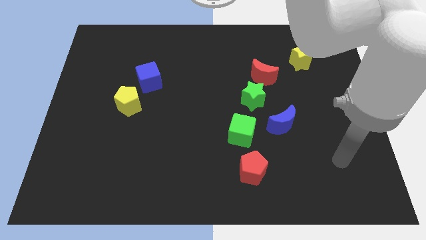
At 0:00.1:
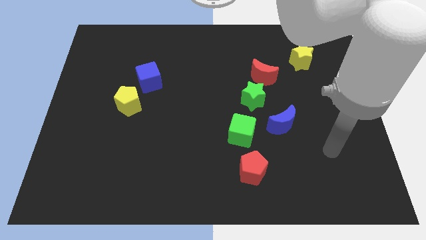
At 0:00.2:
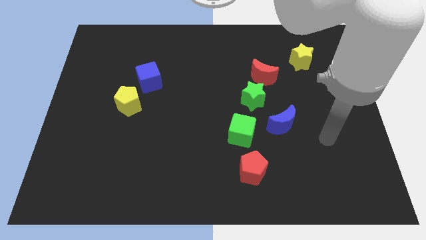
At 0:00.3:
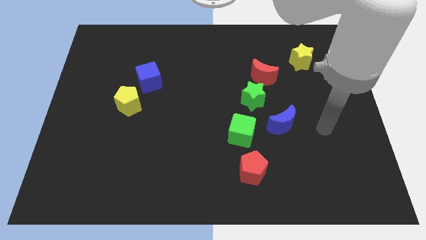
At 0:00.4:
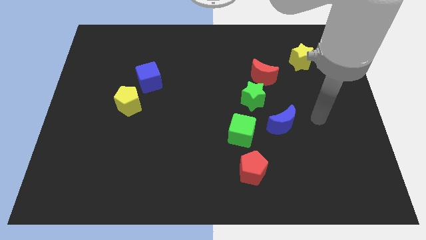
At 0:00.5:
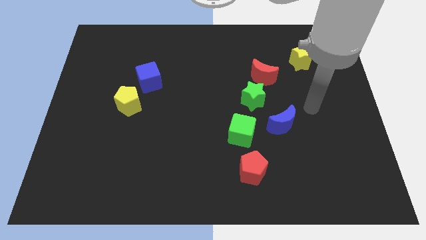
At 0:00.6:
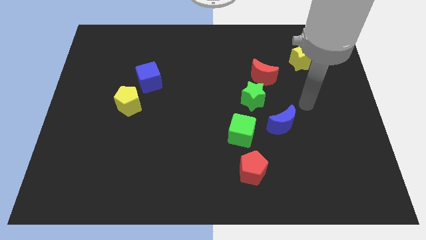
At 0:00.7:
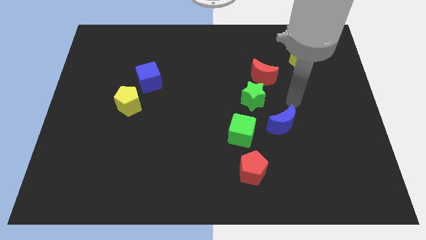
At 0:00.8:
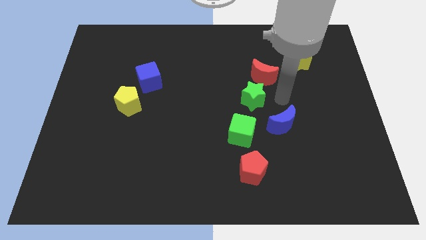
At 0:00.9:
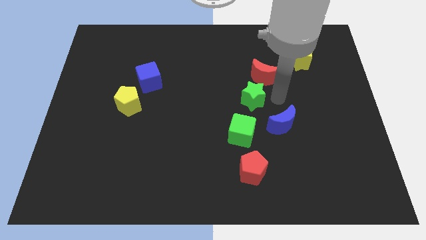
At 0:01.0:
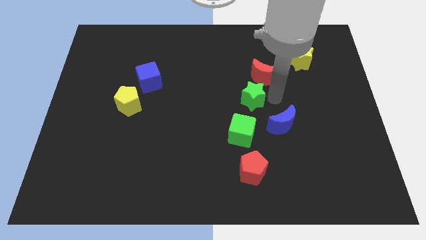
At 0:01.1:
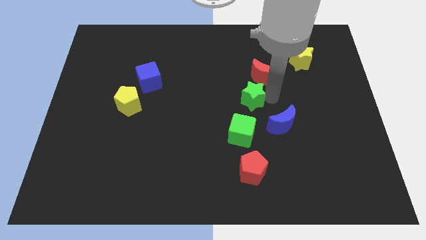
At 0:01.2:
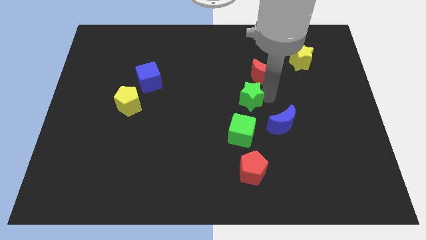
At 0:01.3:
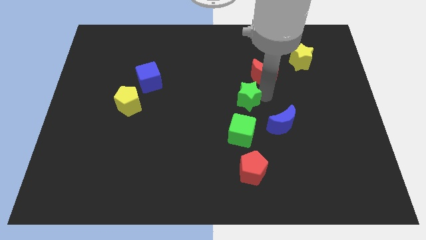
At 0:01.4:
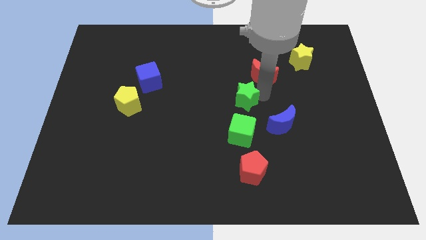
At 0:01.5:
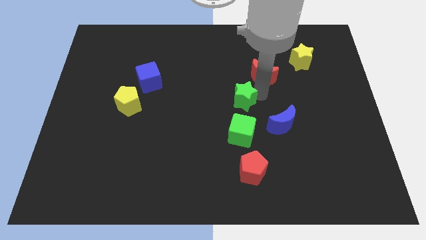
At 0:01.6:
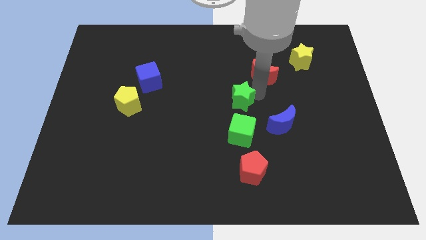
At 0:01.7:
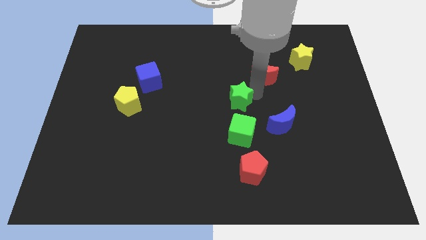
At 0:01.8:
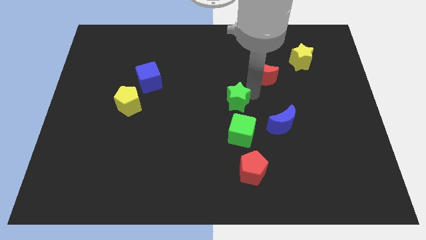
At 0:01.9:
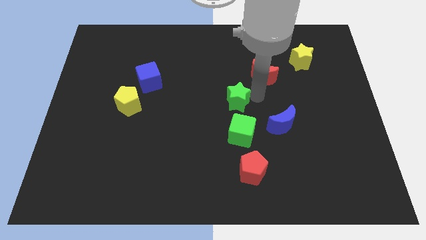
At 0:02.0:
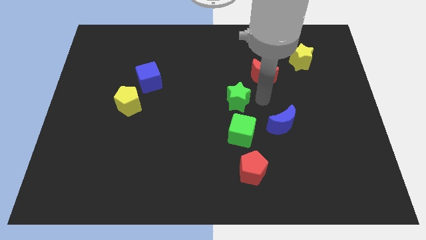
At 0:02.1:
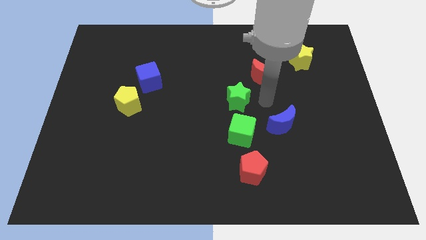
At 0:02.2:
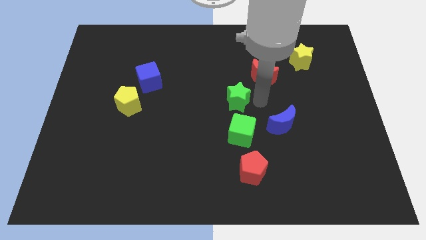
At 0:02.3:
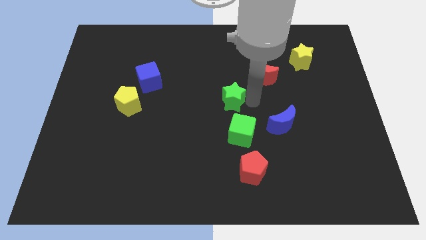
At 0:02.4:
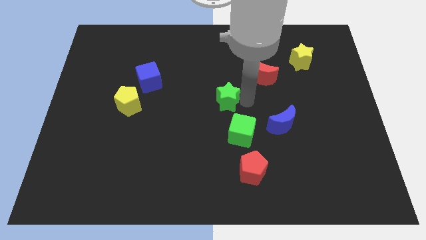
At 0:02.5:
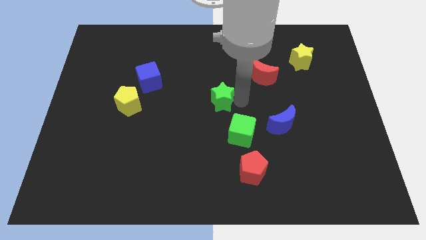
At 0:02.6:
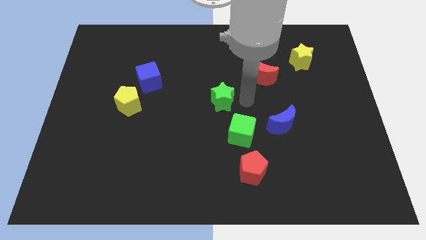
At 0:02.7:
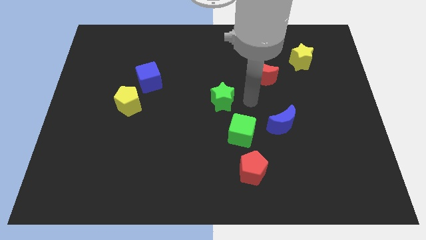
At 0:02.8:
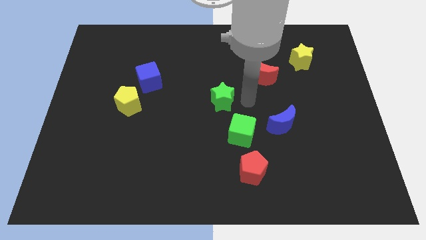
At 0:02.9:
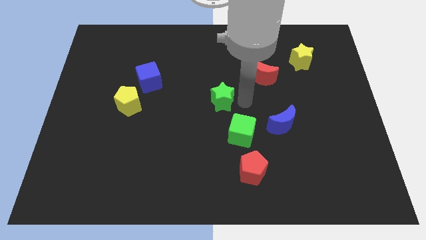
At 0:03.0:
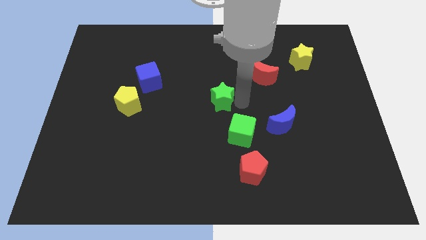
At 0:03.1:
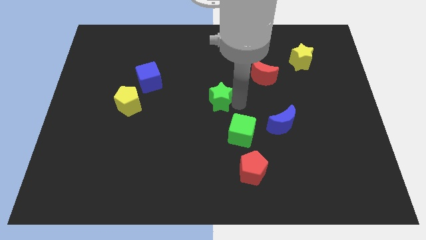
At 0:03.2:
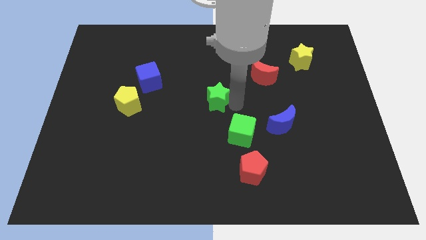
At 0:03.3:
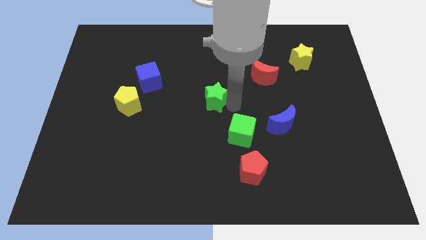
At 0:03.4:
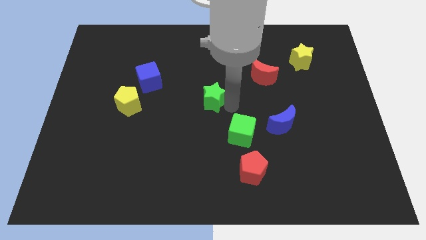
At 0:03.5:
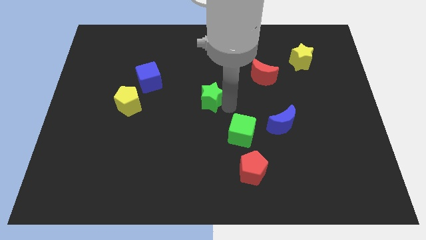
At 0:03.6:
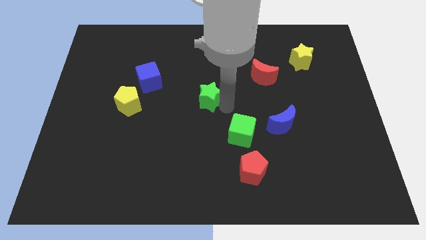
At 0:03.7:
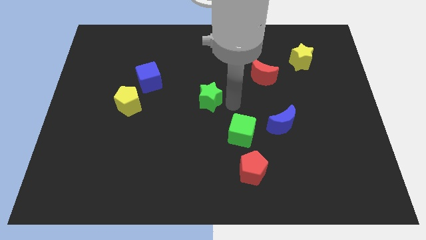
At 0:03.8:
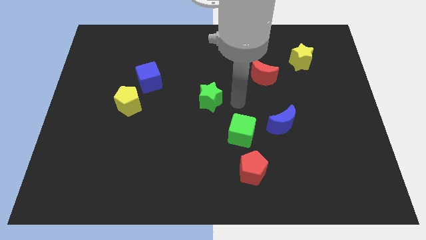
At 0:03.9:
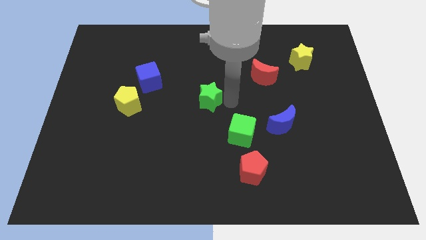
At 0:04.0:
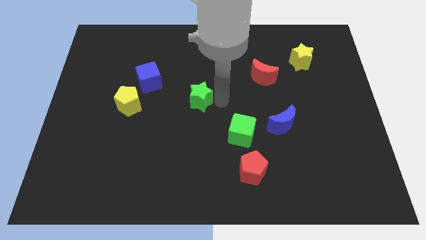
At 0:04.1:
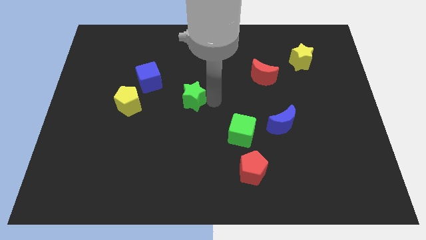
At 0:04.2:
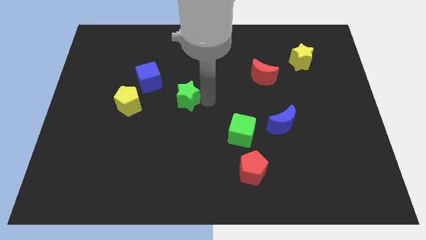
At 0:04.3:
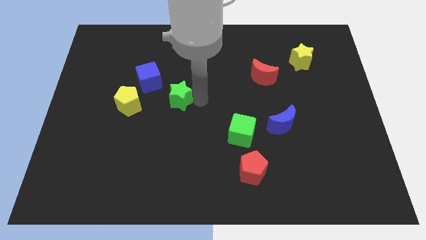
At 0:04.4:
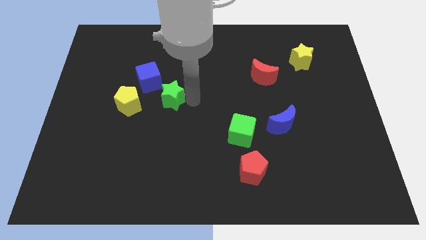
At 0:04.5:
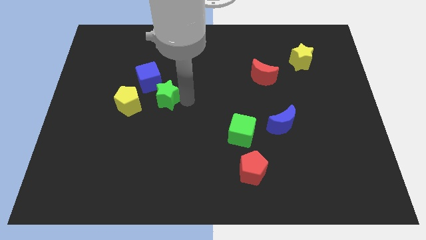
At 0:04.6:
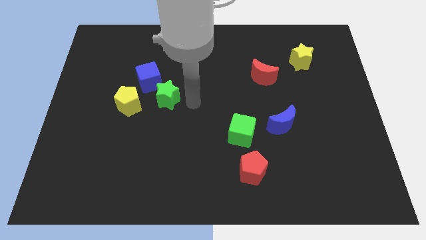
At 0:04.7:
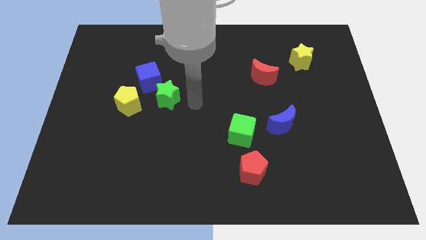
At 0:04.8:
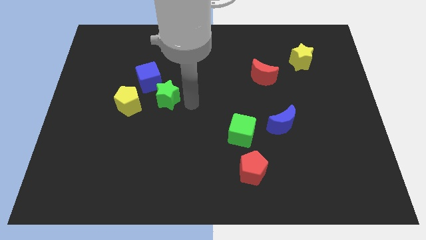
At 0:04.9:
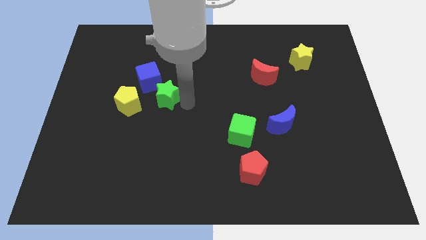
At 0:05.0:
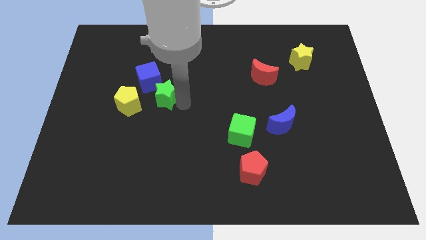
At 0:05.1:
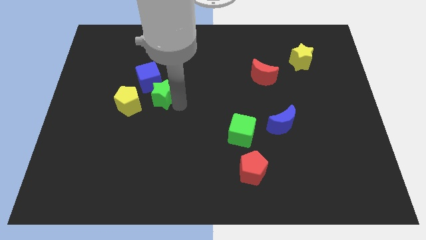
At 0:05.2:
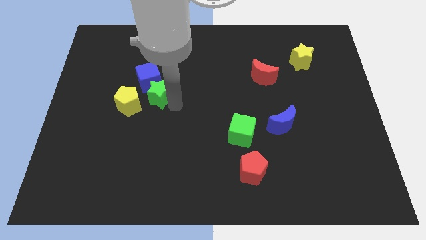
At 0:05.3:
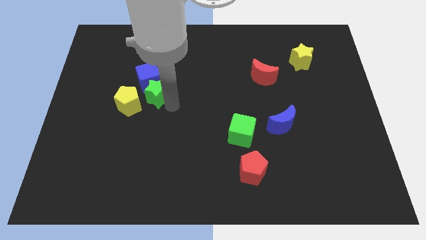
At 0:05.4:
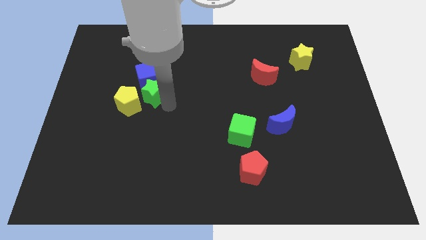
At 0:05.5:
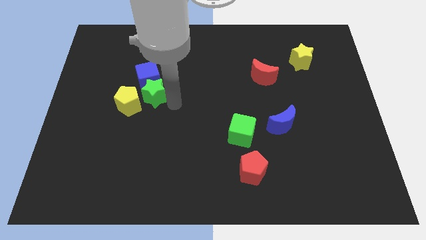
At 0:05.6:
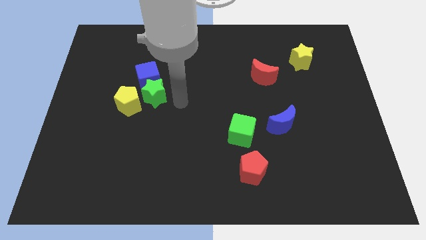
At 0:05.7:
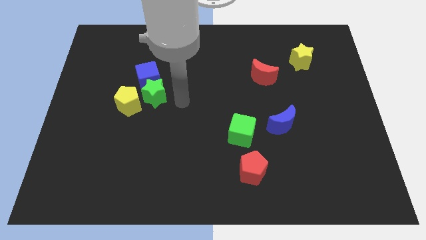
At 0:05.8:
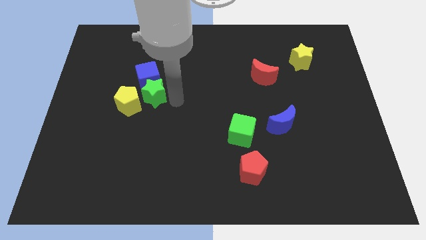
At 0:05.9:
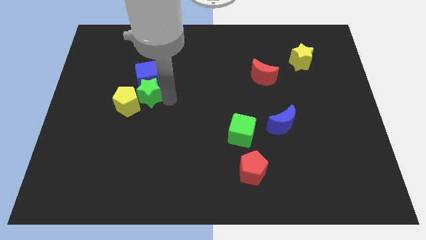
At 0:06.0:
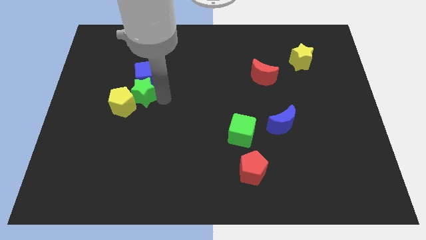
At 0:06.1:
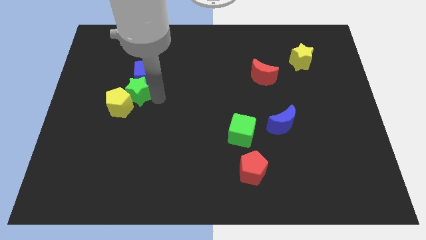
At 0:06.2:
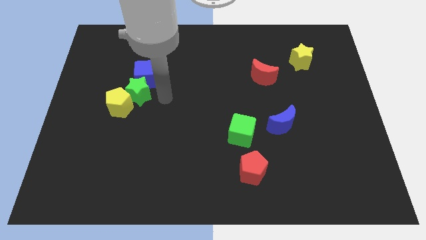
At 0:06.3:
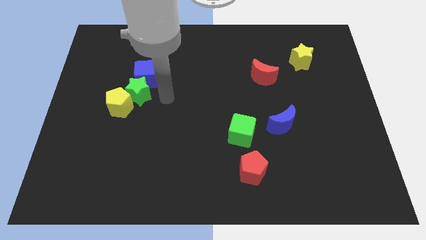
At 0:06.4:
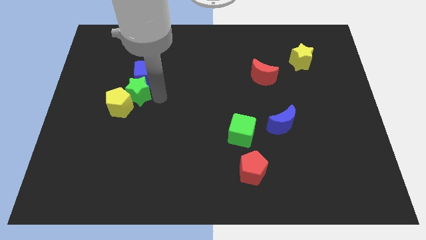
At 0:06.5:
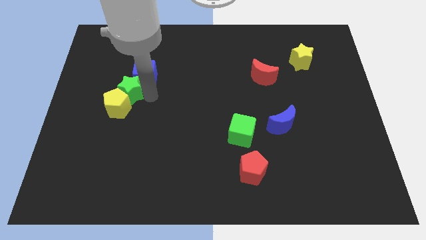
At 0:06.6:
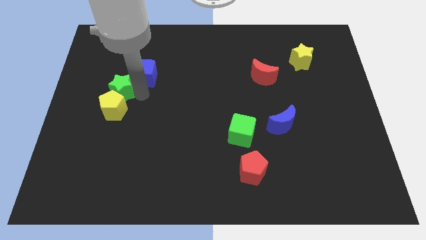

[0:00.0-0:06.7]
put the green star diagonally up and to the left of the yellow pentagon
